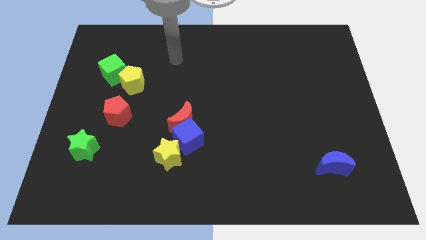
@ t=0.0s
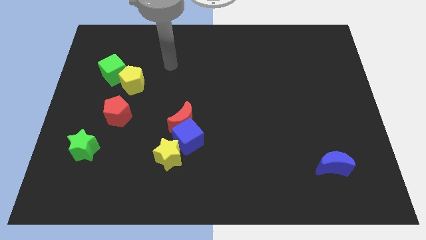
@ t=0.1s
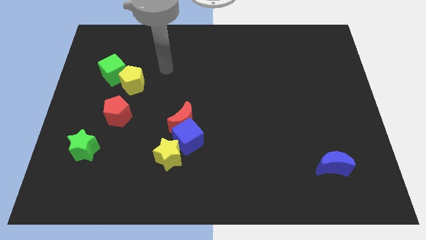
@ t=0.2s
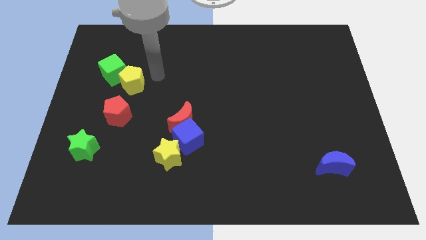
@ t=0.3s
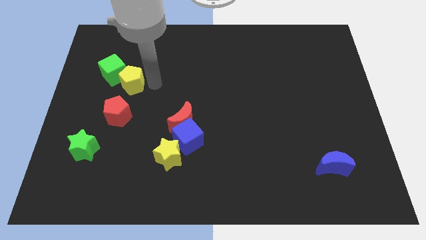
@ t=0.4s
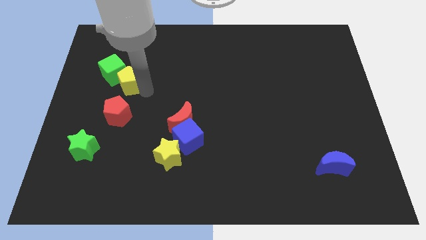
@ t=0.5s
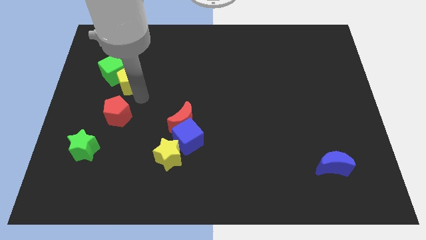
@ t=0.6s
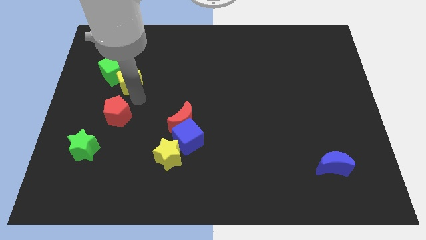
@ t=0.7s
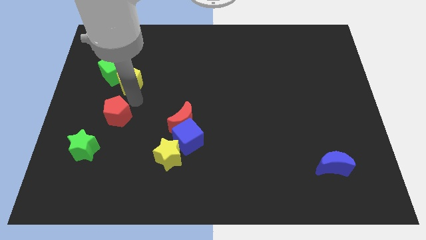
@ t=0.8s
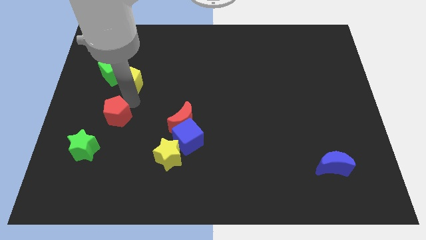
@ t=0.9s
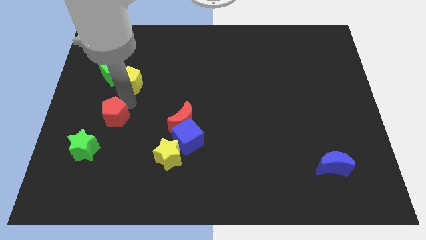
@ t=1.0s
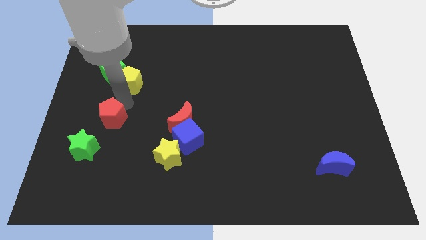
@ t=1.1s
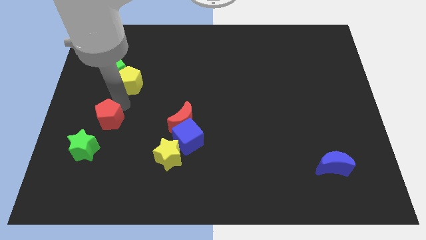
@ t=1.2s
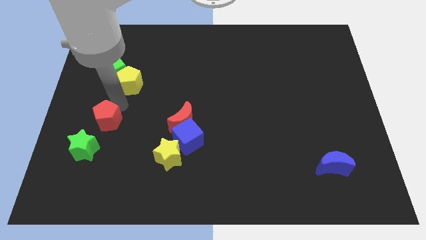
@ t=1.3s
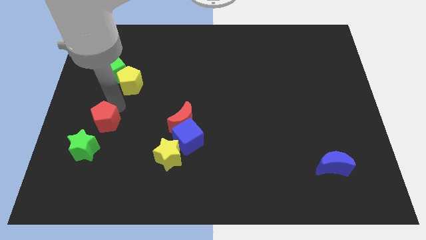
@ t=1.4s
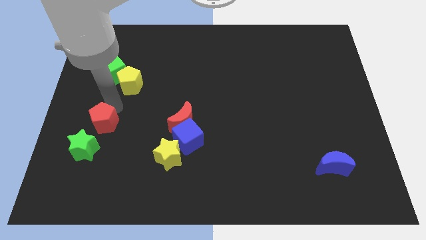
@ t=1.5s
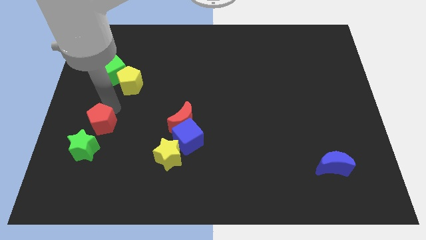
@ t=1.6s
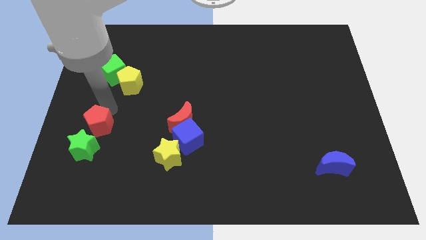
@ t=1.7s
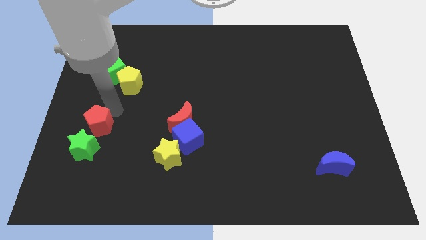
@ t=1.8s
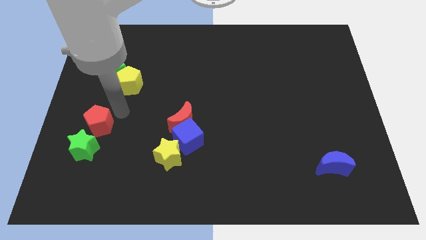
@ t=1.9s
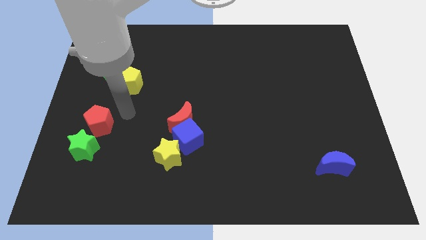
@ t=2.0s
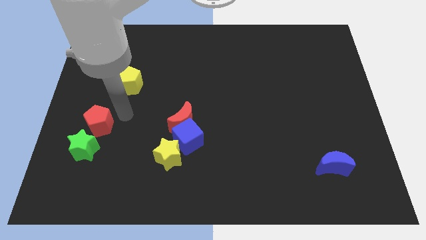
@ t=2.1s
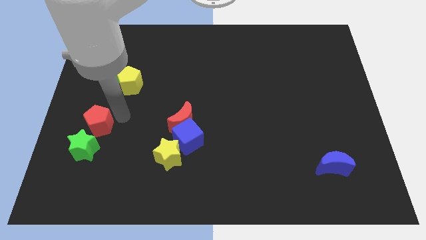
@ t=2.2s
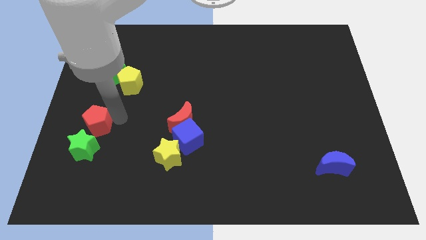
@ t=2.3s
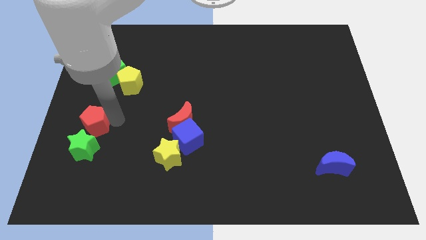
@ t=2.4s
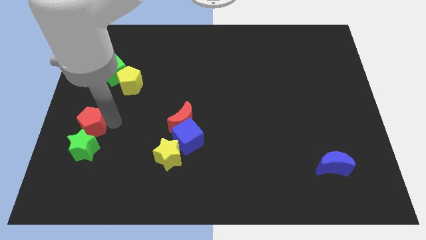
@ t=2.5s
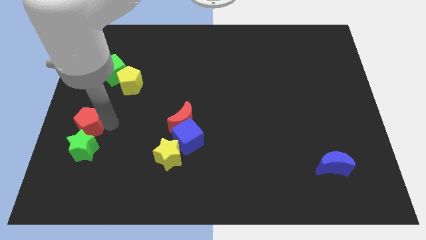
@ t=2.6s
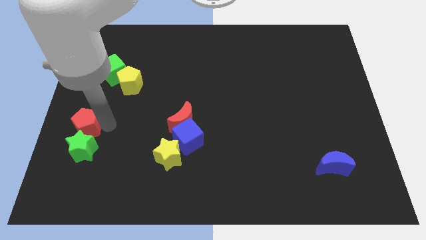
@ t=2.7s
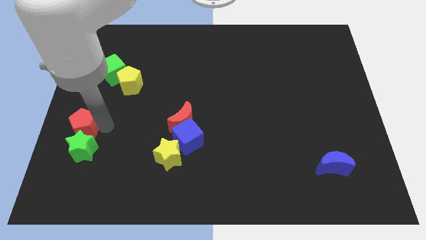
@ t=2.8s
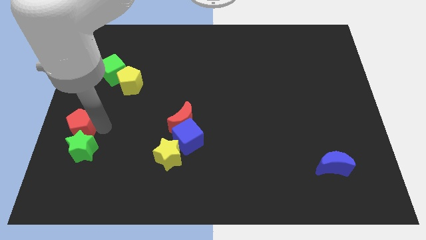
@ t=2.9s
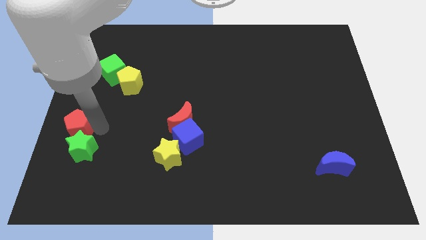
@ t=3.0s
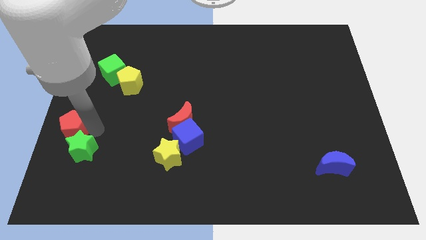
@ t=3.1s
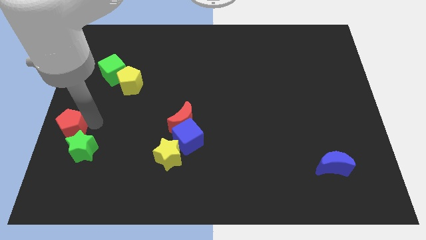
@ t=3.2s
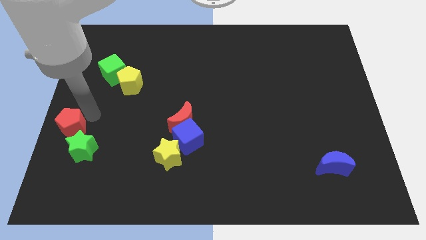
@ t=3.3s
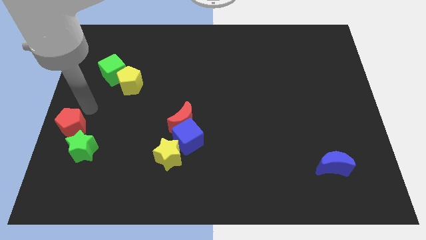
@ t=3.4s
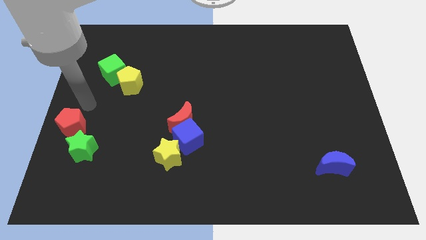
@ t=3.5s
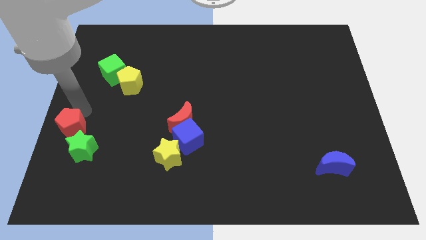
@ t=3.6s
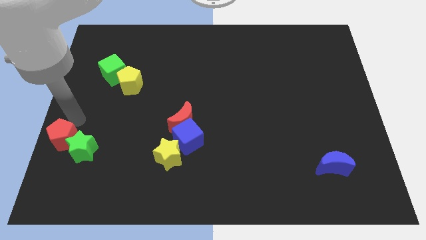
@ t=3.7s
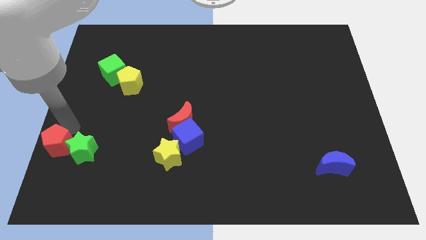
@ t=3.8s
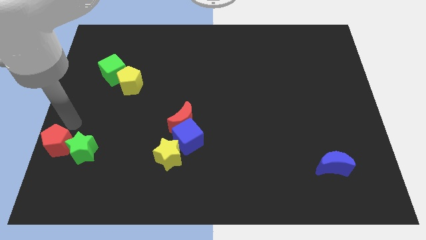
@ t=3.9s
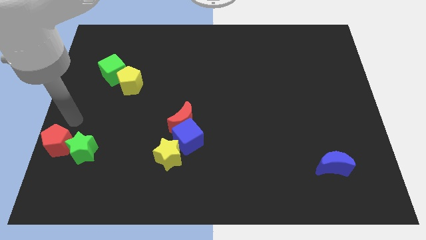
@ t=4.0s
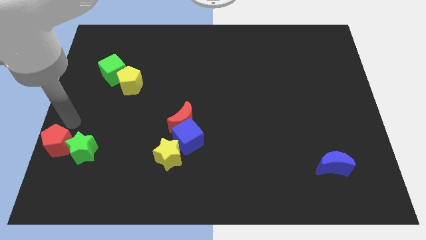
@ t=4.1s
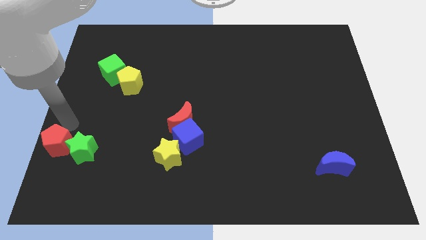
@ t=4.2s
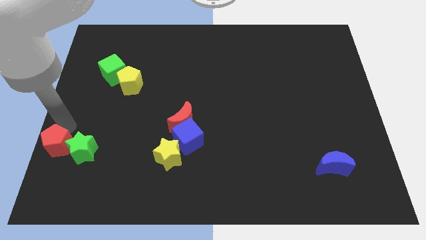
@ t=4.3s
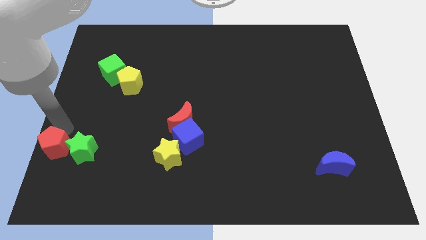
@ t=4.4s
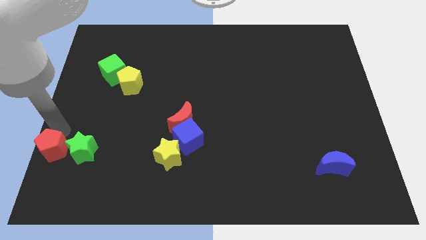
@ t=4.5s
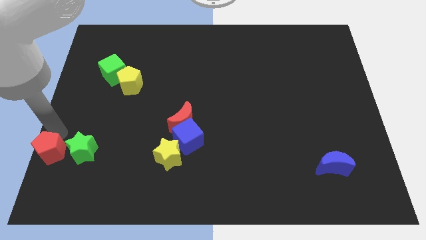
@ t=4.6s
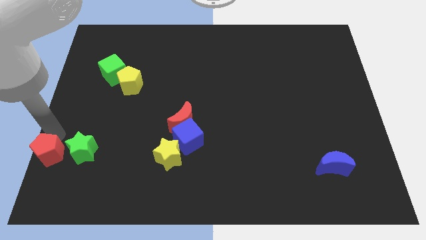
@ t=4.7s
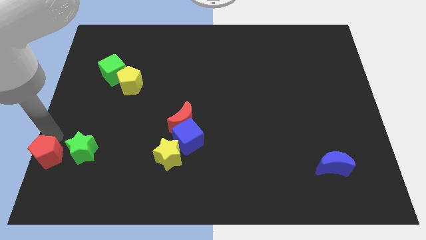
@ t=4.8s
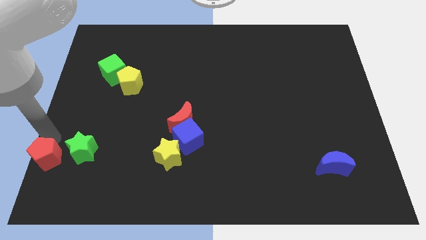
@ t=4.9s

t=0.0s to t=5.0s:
slide the red pentagon to the lower left corner

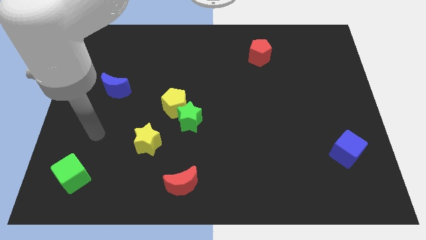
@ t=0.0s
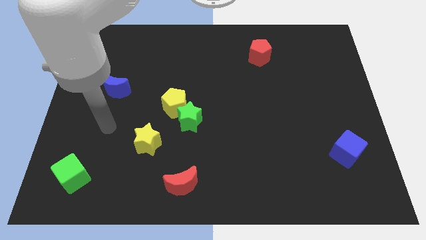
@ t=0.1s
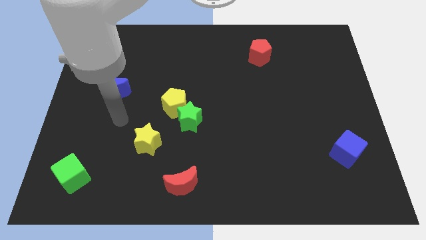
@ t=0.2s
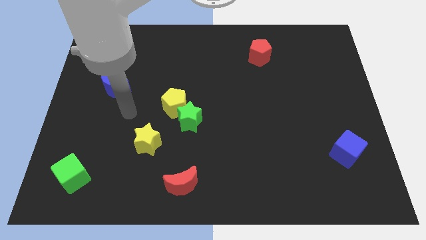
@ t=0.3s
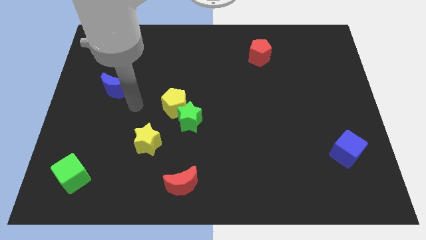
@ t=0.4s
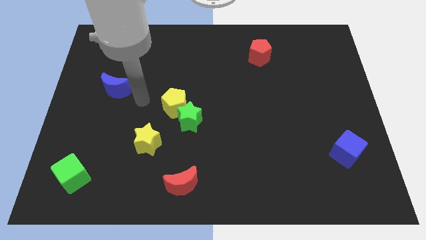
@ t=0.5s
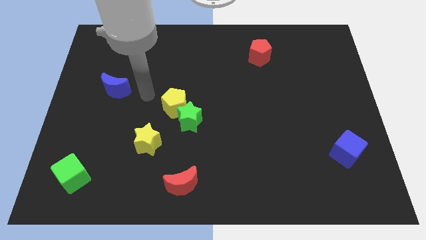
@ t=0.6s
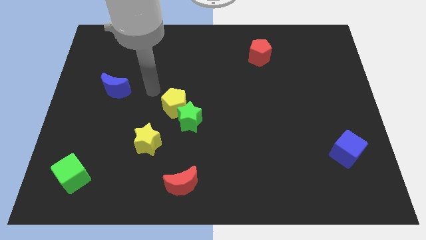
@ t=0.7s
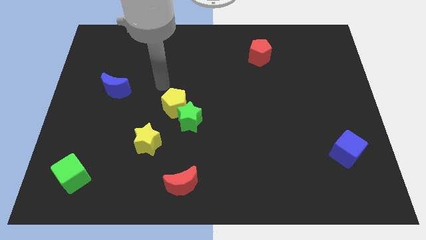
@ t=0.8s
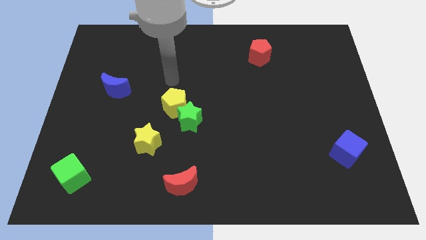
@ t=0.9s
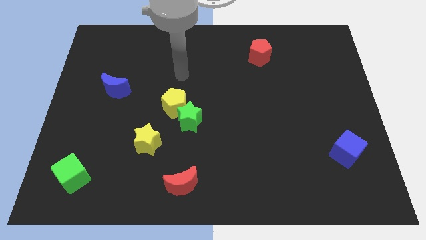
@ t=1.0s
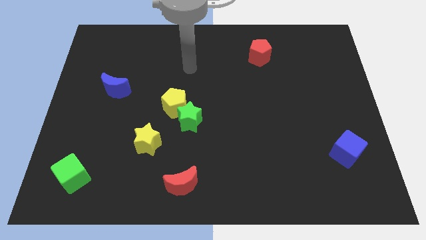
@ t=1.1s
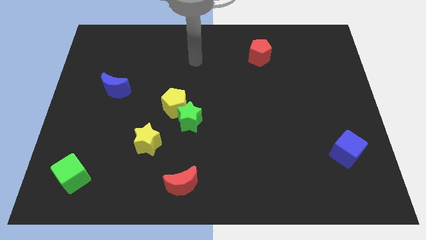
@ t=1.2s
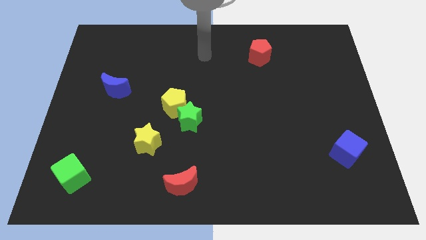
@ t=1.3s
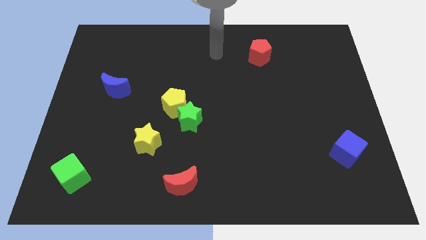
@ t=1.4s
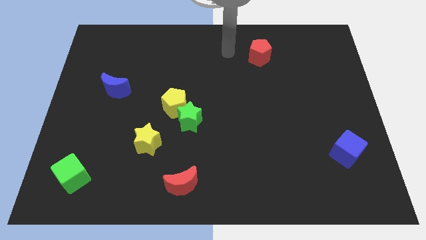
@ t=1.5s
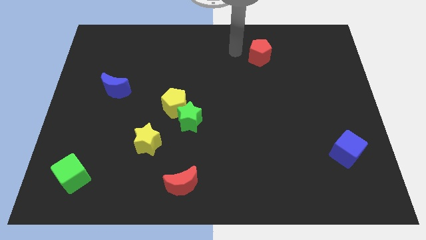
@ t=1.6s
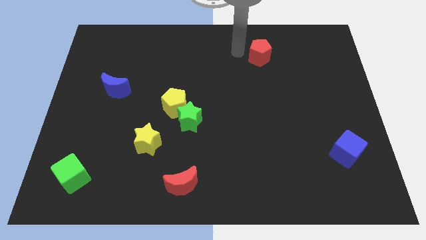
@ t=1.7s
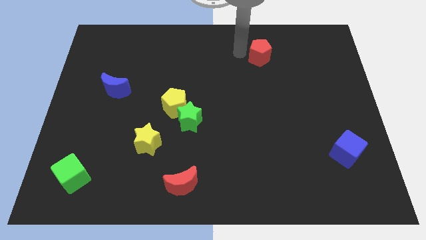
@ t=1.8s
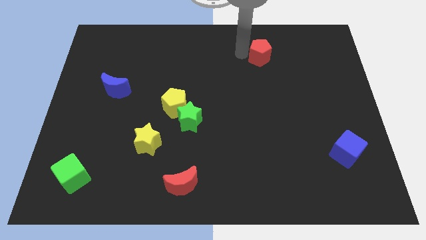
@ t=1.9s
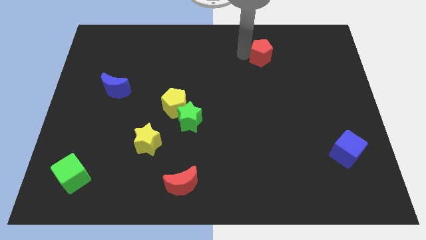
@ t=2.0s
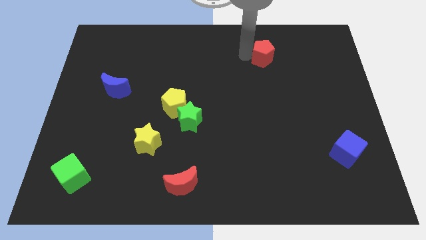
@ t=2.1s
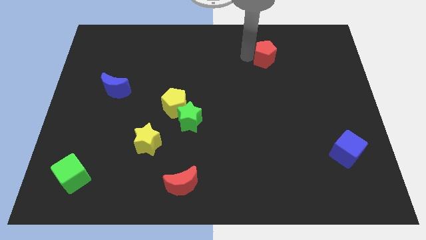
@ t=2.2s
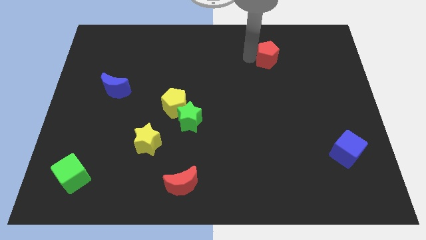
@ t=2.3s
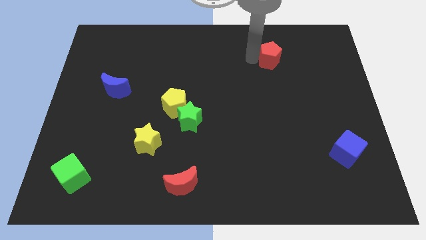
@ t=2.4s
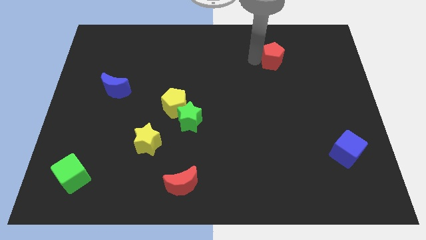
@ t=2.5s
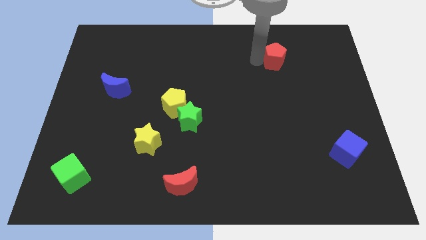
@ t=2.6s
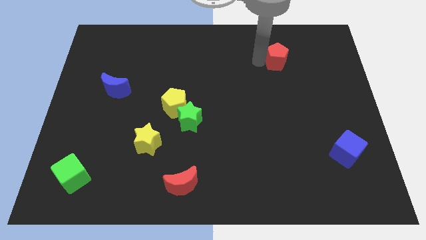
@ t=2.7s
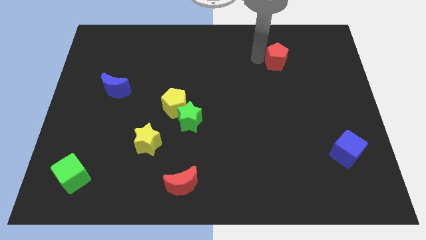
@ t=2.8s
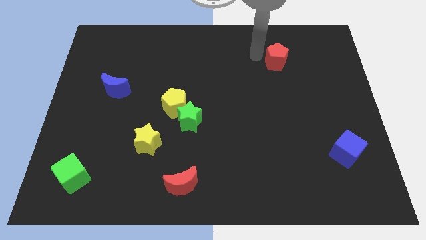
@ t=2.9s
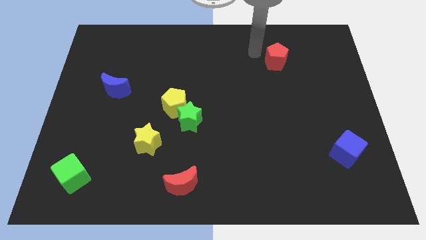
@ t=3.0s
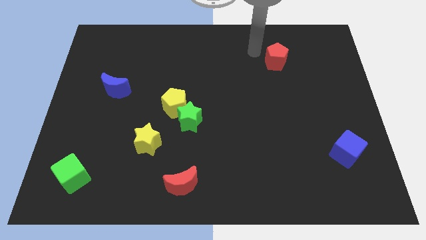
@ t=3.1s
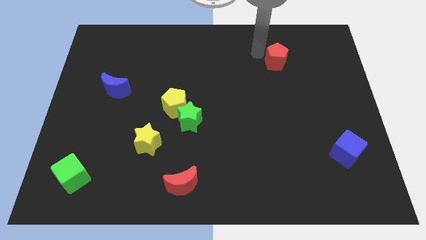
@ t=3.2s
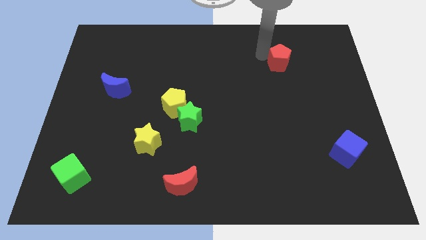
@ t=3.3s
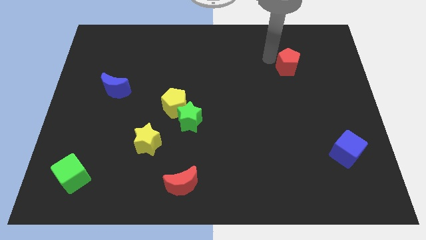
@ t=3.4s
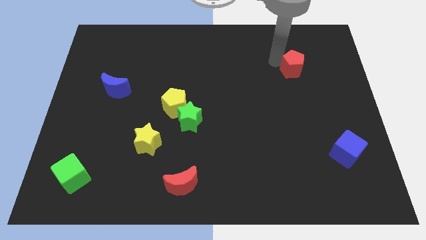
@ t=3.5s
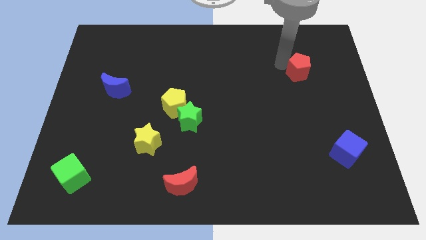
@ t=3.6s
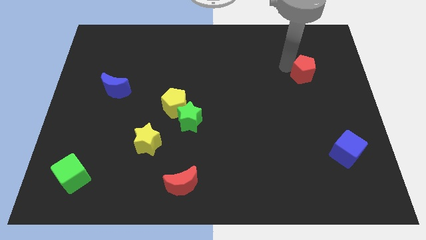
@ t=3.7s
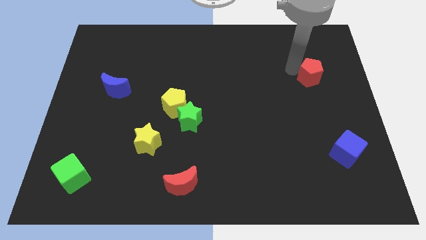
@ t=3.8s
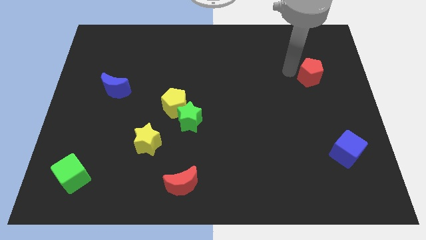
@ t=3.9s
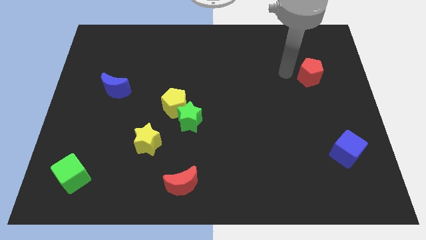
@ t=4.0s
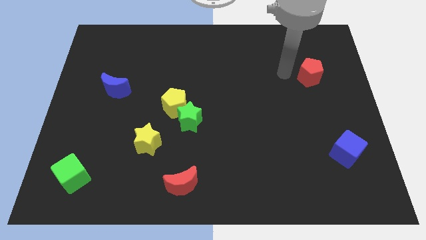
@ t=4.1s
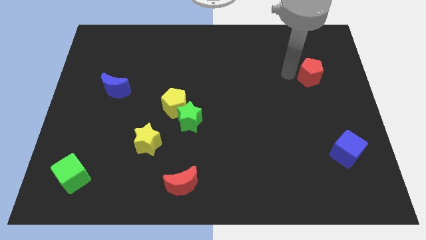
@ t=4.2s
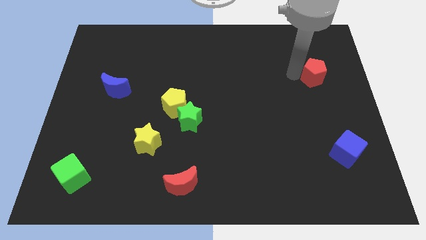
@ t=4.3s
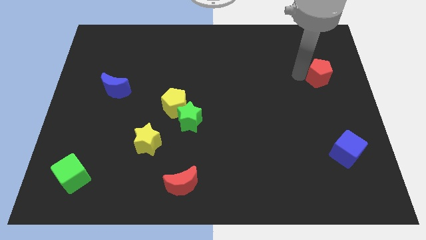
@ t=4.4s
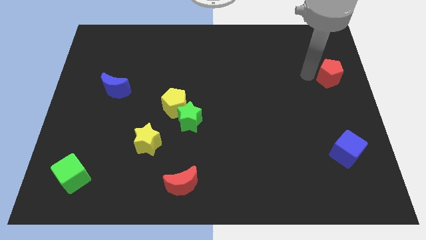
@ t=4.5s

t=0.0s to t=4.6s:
slide the red pentagon to the right side of the board
